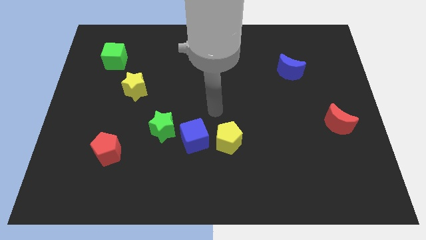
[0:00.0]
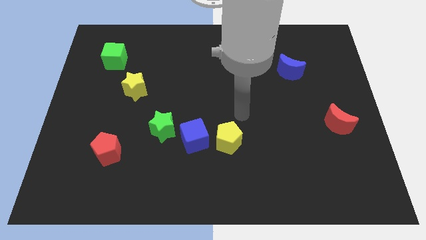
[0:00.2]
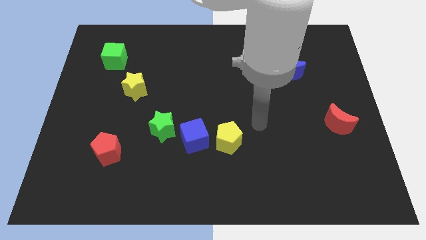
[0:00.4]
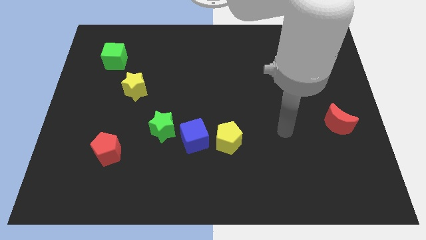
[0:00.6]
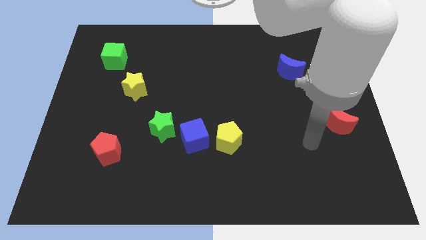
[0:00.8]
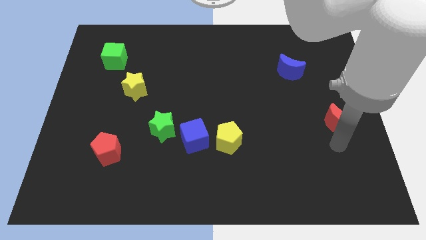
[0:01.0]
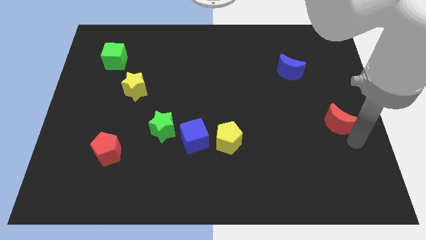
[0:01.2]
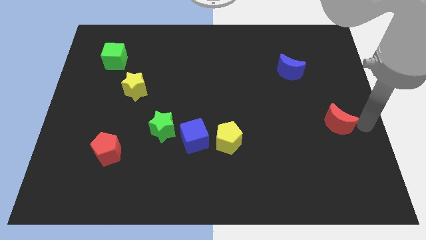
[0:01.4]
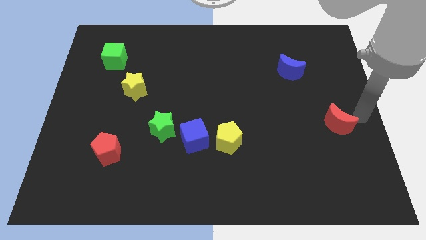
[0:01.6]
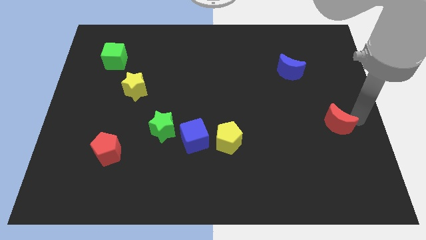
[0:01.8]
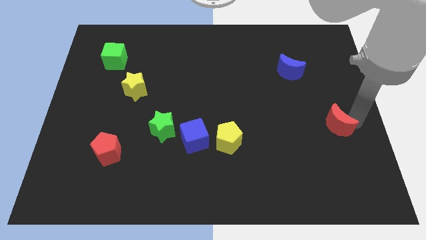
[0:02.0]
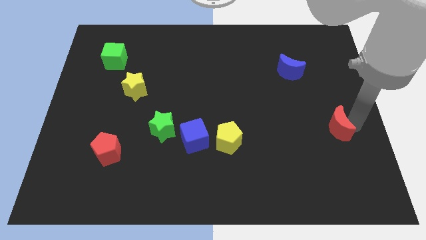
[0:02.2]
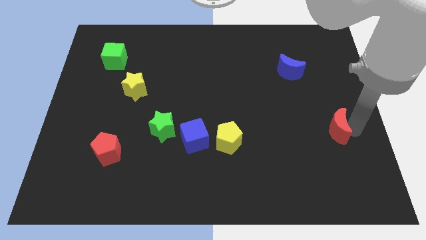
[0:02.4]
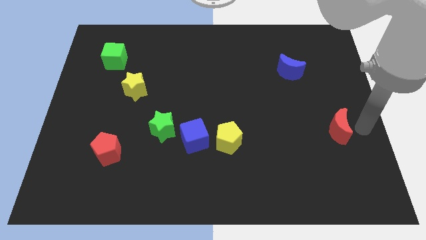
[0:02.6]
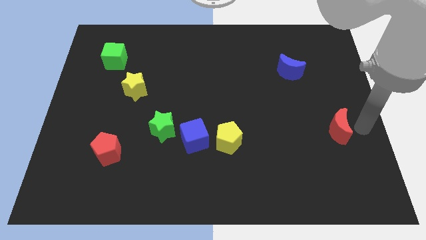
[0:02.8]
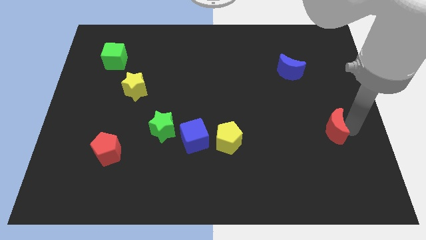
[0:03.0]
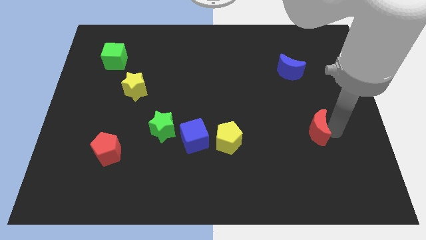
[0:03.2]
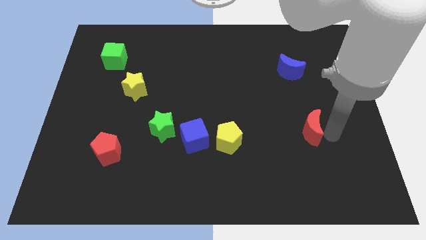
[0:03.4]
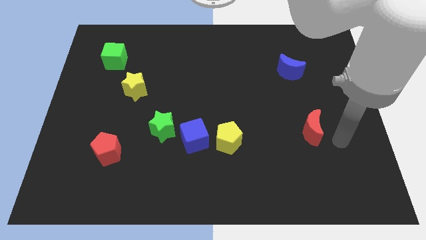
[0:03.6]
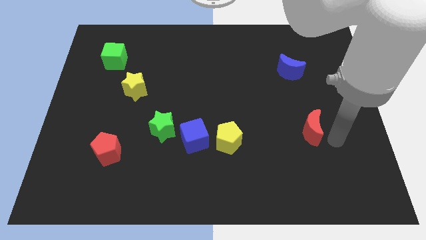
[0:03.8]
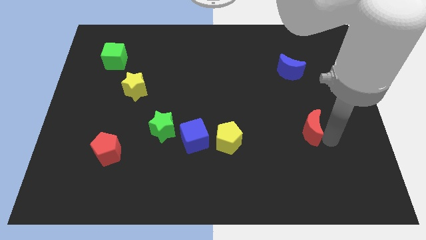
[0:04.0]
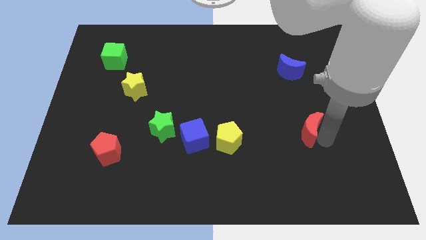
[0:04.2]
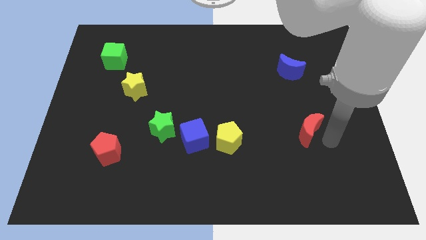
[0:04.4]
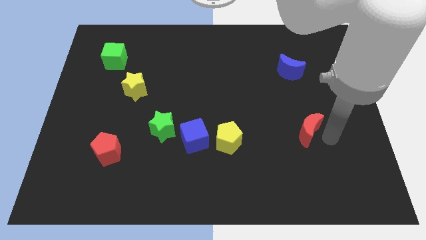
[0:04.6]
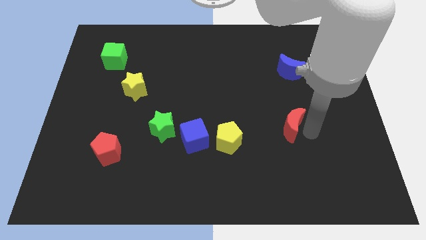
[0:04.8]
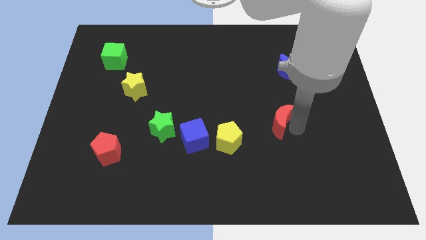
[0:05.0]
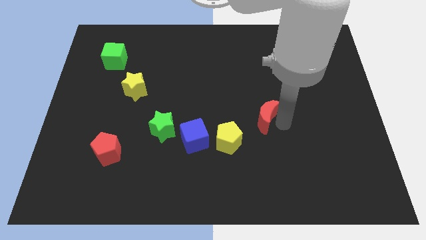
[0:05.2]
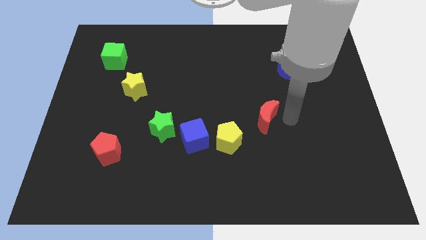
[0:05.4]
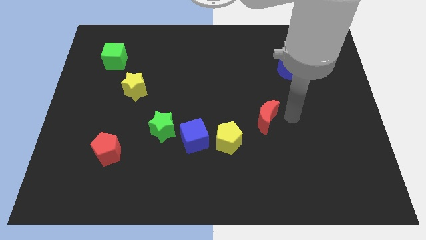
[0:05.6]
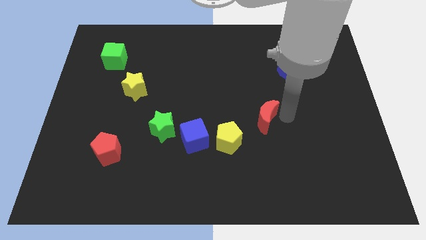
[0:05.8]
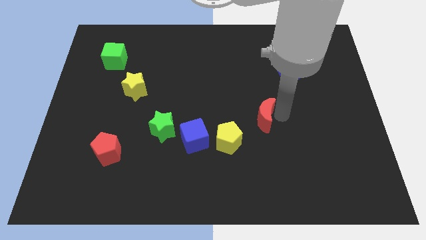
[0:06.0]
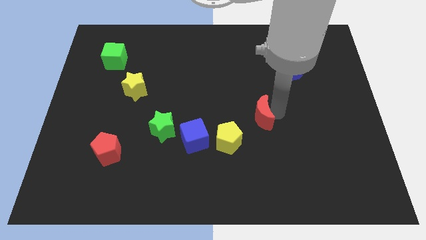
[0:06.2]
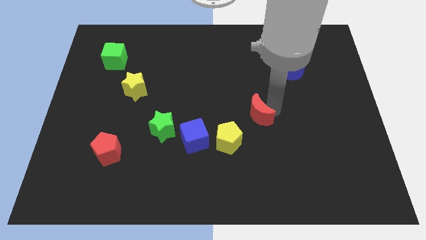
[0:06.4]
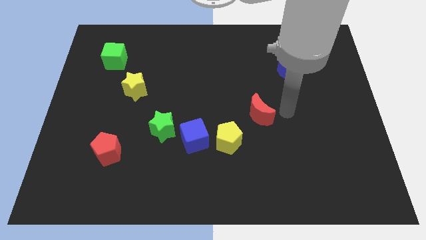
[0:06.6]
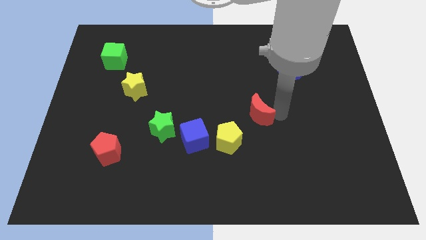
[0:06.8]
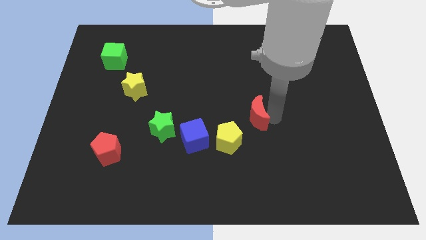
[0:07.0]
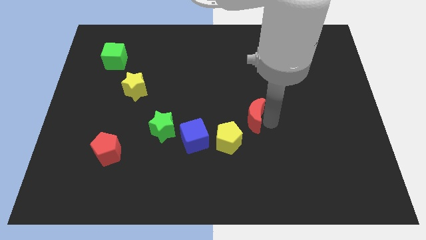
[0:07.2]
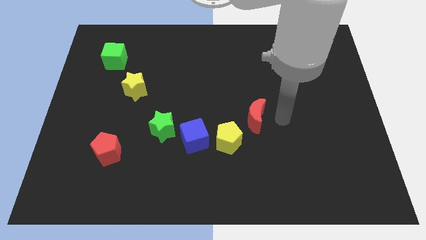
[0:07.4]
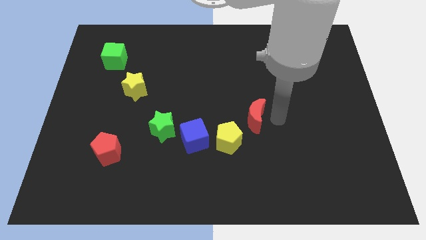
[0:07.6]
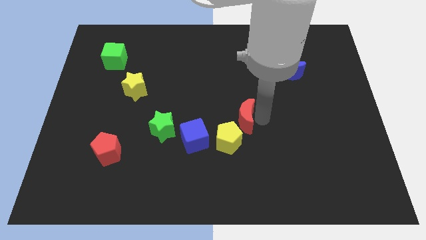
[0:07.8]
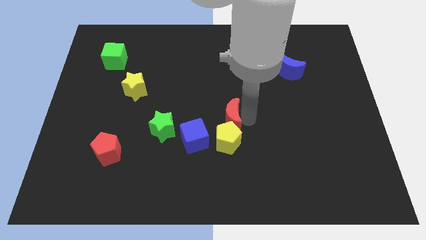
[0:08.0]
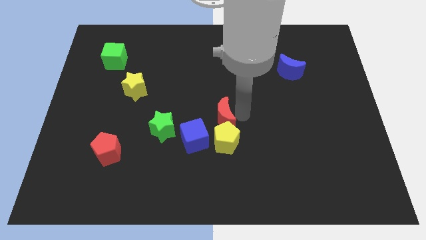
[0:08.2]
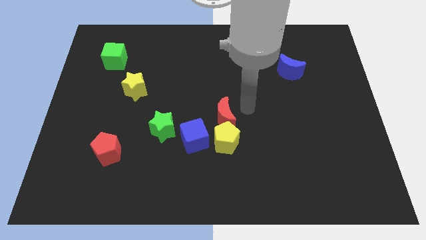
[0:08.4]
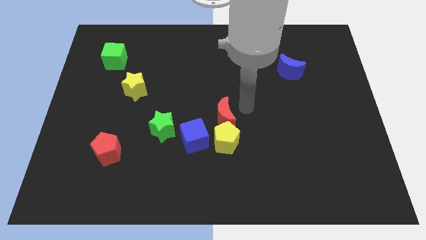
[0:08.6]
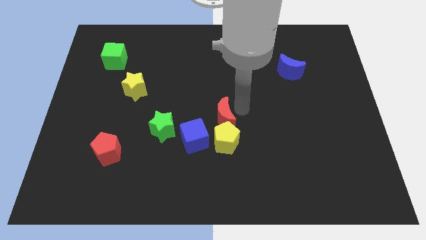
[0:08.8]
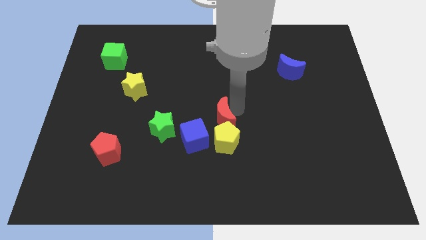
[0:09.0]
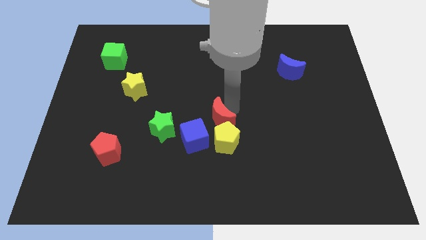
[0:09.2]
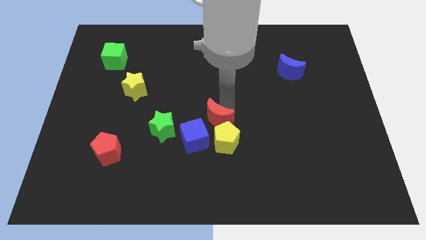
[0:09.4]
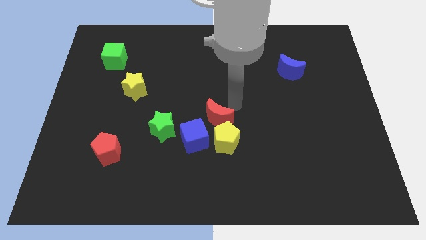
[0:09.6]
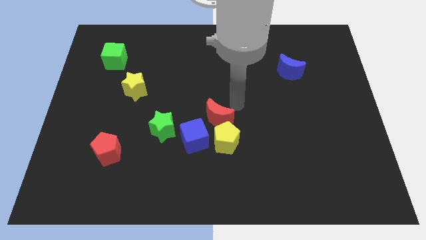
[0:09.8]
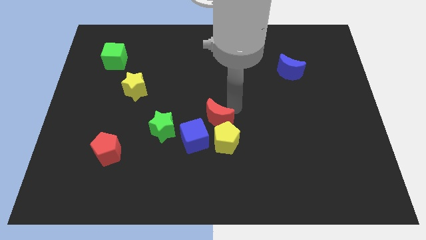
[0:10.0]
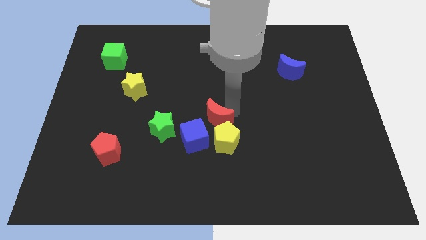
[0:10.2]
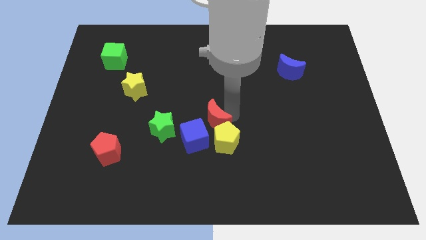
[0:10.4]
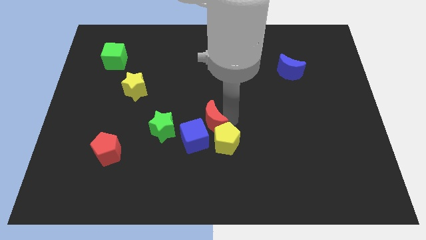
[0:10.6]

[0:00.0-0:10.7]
put the red moon towards the blue cube

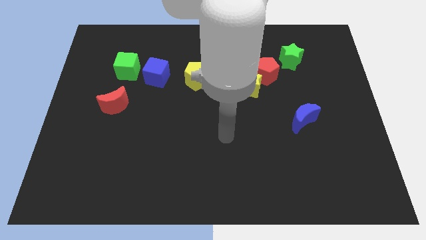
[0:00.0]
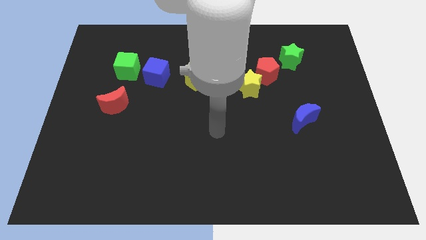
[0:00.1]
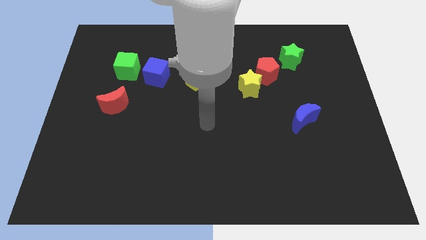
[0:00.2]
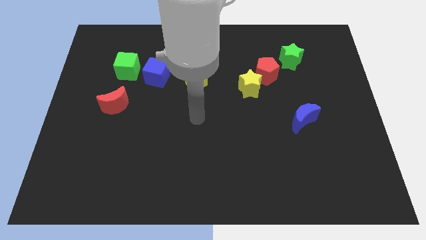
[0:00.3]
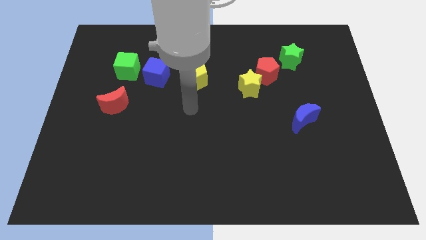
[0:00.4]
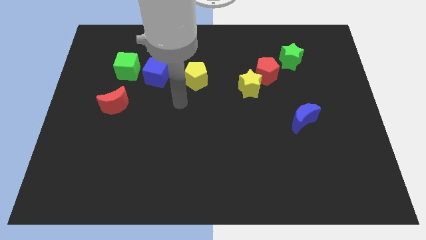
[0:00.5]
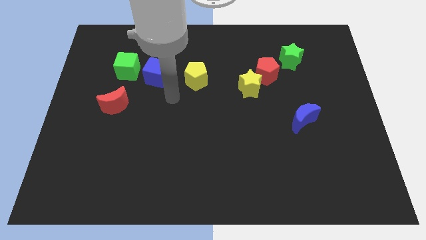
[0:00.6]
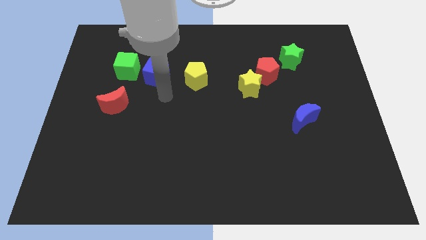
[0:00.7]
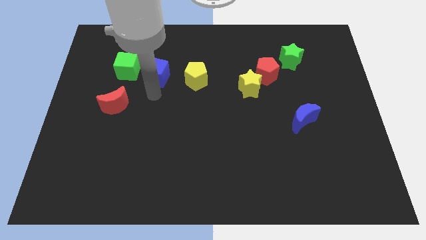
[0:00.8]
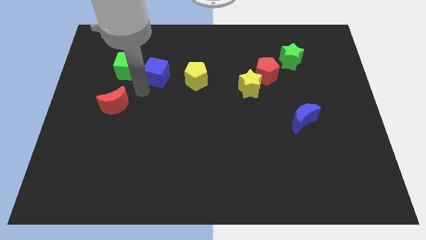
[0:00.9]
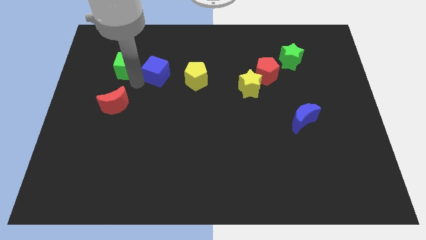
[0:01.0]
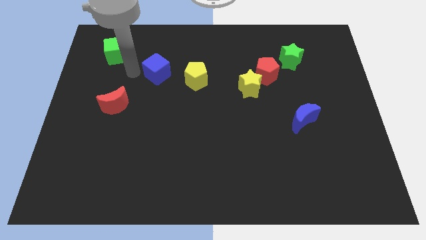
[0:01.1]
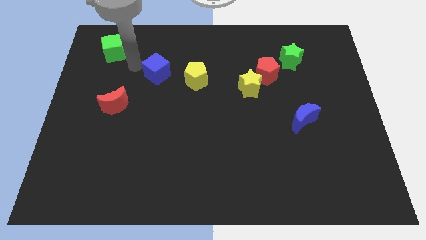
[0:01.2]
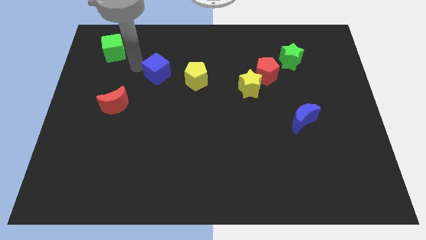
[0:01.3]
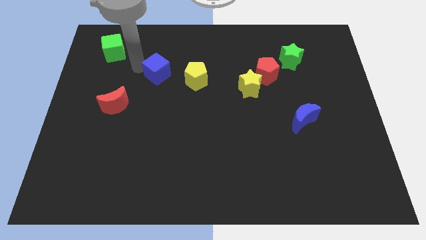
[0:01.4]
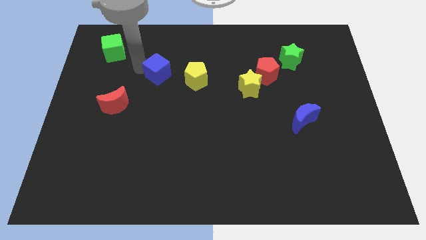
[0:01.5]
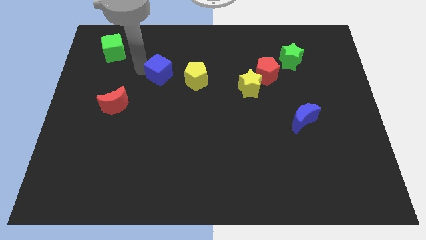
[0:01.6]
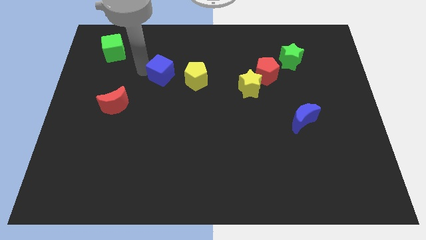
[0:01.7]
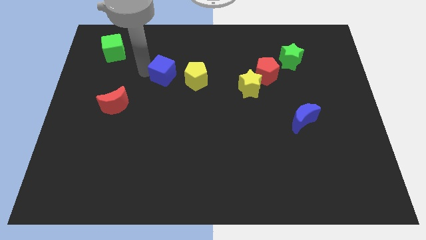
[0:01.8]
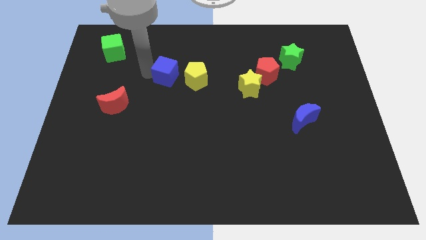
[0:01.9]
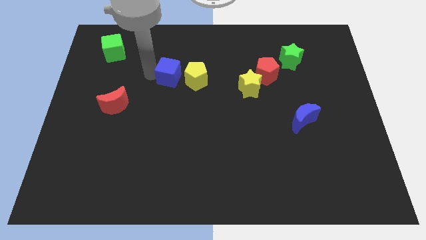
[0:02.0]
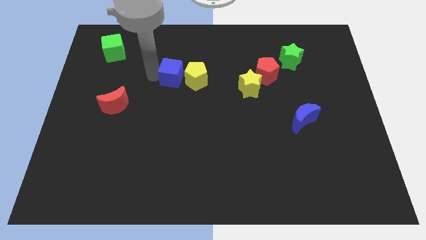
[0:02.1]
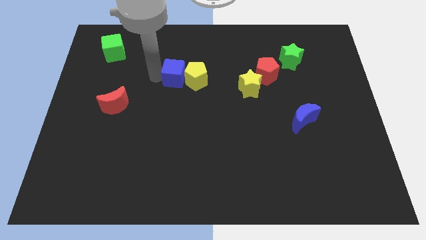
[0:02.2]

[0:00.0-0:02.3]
slide the blue cube to the yellow pentagon
